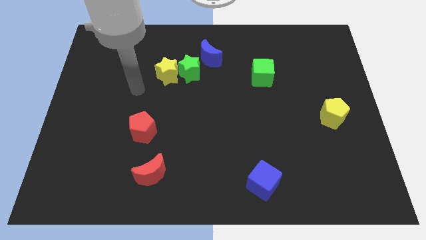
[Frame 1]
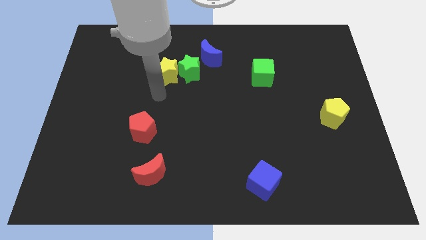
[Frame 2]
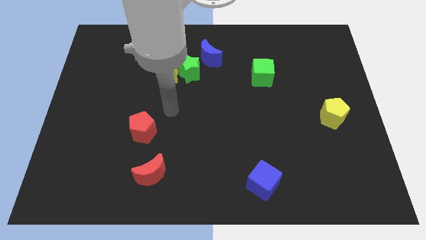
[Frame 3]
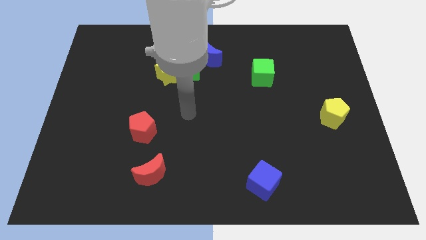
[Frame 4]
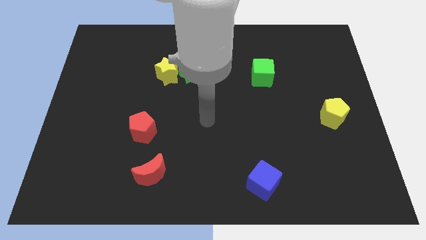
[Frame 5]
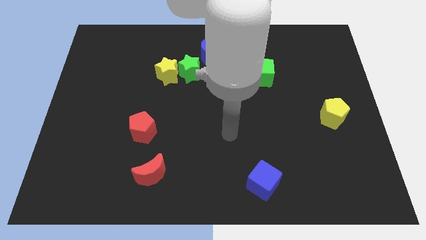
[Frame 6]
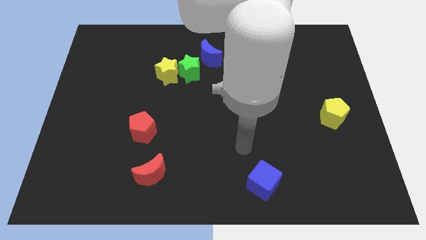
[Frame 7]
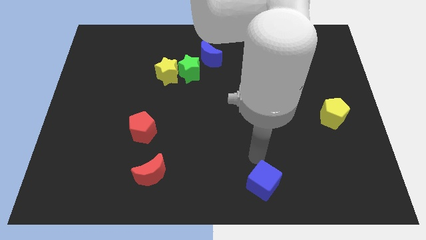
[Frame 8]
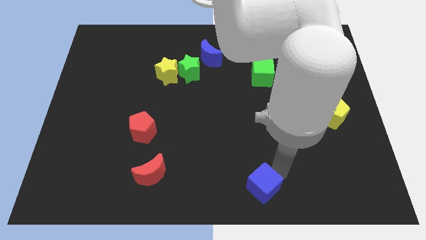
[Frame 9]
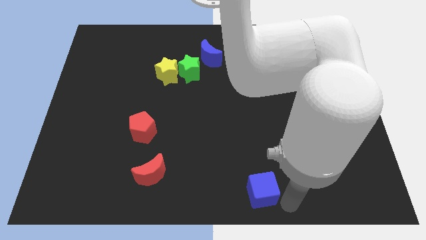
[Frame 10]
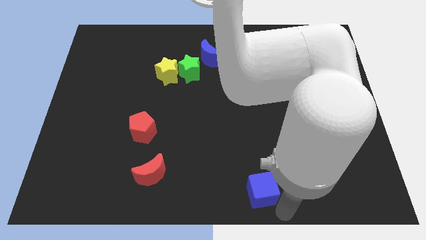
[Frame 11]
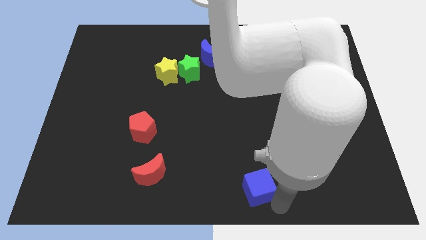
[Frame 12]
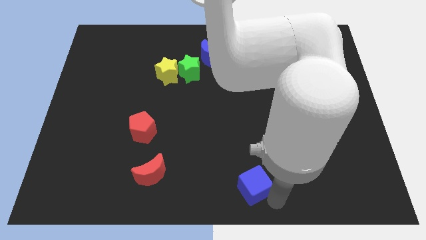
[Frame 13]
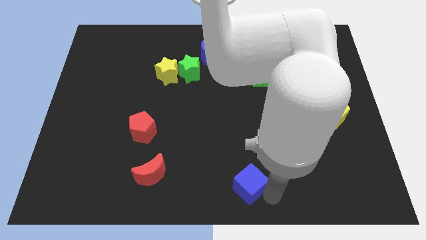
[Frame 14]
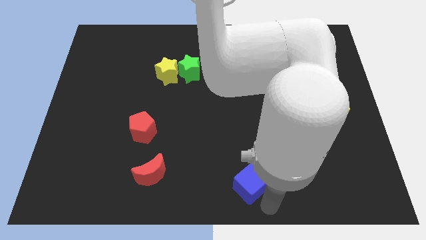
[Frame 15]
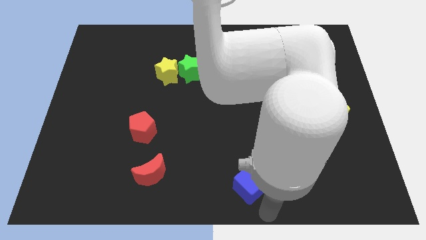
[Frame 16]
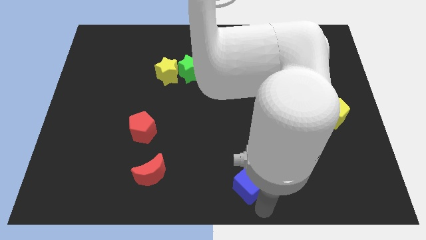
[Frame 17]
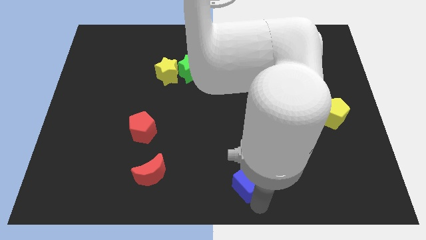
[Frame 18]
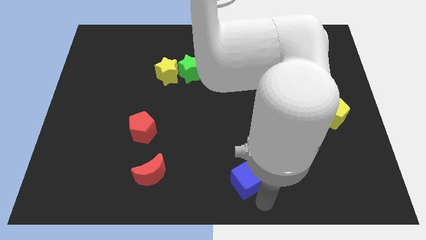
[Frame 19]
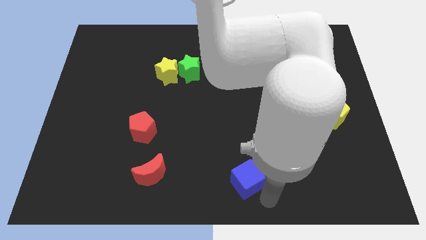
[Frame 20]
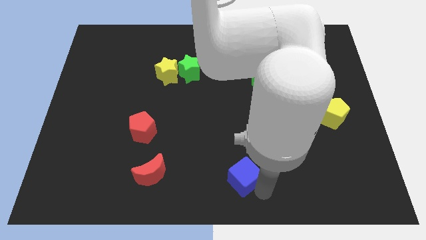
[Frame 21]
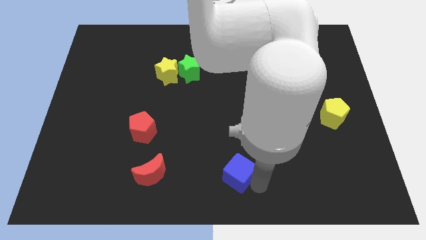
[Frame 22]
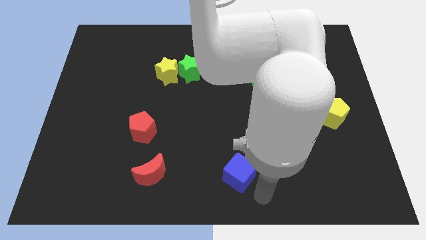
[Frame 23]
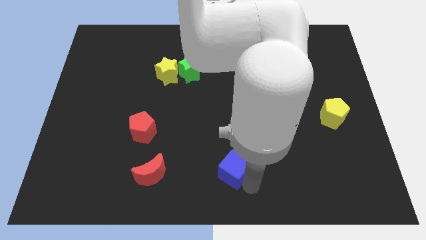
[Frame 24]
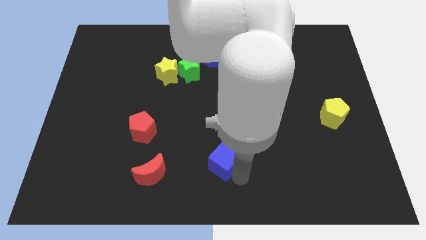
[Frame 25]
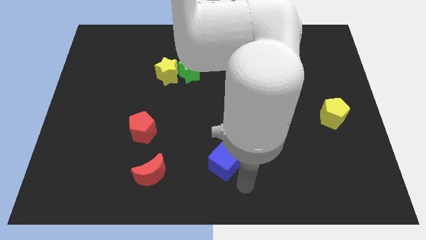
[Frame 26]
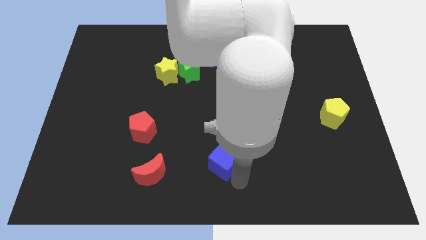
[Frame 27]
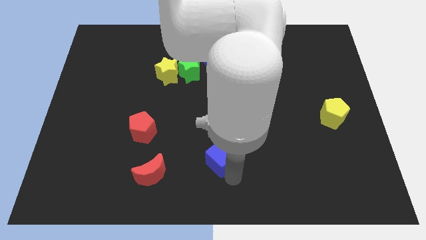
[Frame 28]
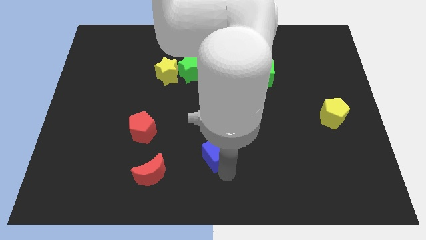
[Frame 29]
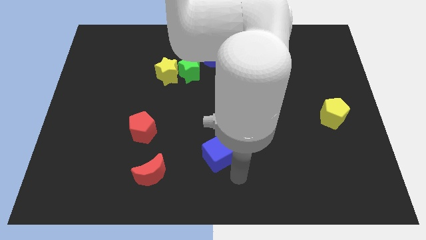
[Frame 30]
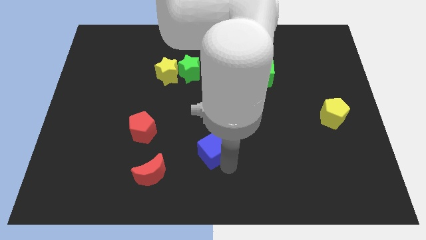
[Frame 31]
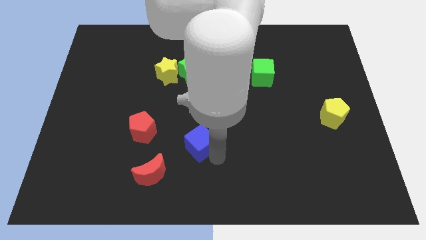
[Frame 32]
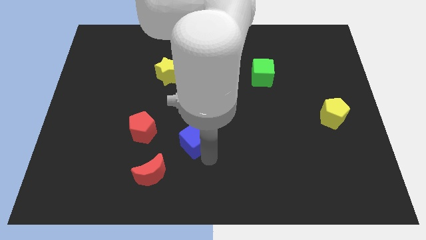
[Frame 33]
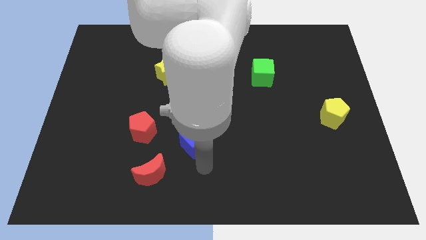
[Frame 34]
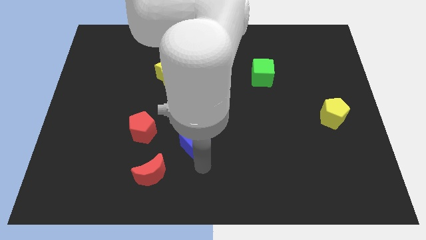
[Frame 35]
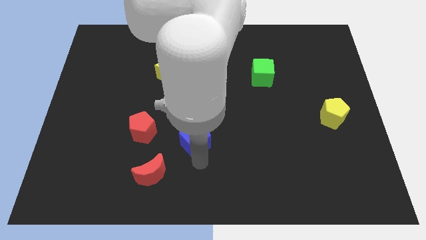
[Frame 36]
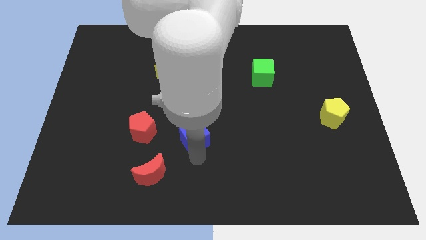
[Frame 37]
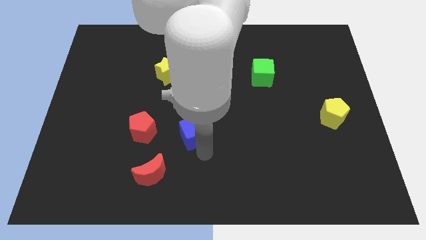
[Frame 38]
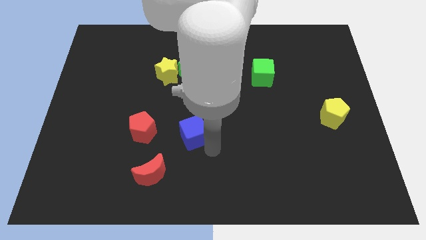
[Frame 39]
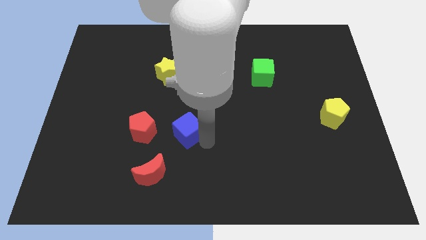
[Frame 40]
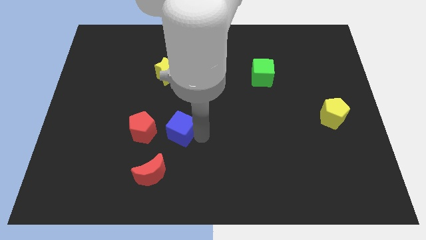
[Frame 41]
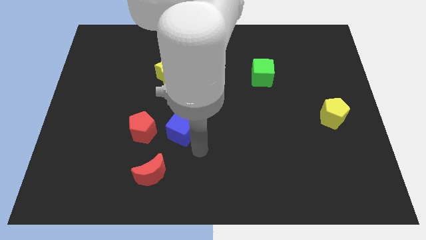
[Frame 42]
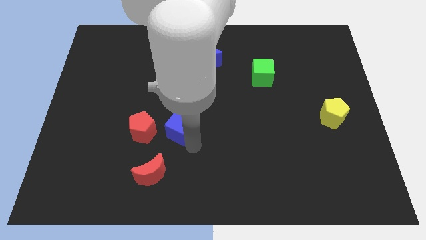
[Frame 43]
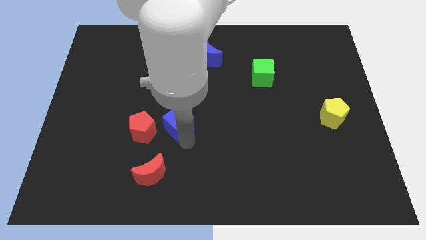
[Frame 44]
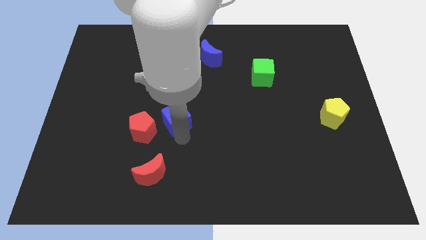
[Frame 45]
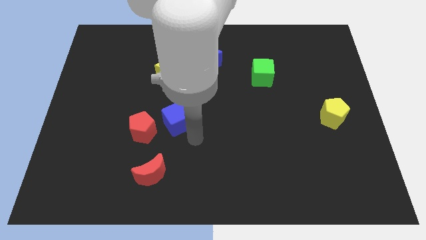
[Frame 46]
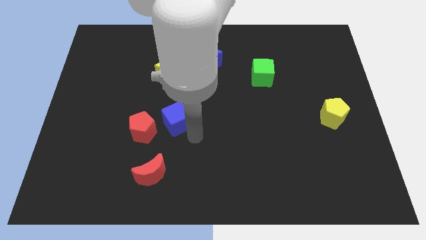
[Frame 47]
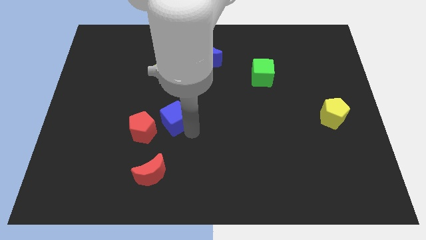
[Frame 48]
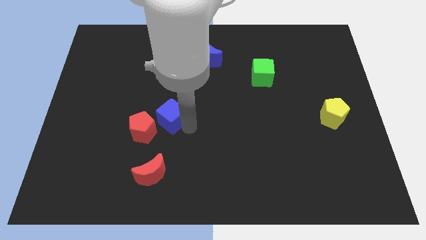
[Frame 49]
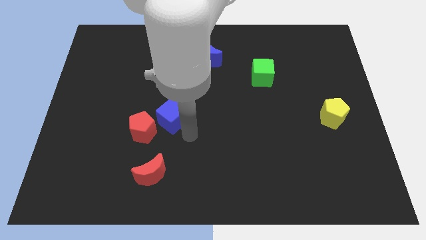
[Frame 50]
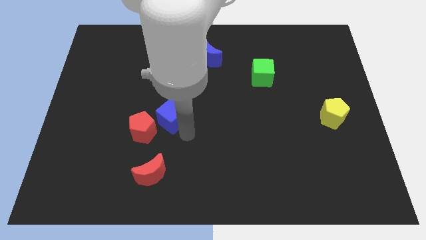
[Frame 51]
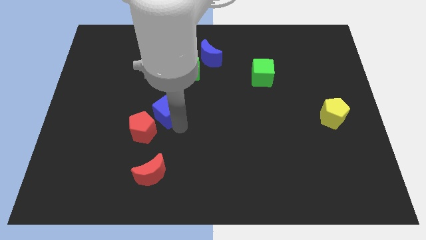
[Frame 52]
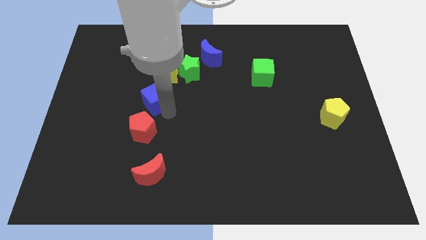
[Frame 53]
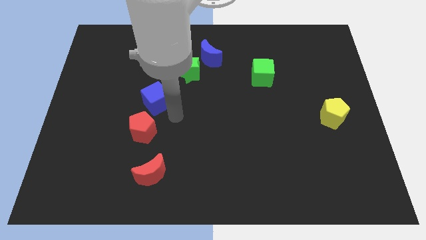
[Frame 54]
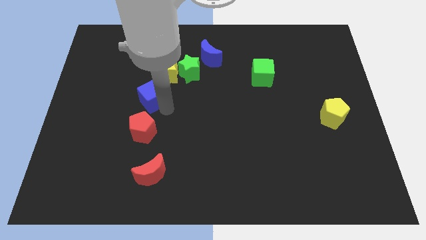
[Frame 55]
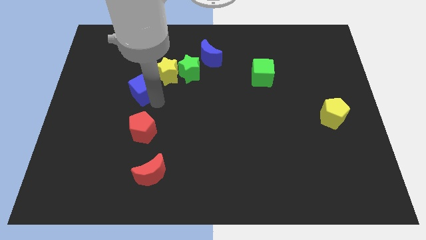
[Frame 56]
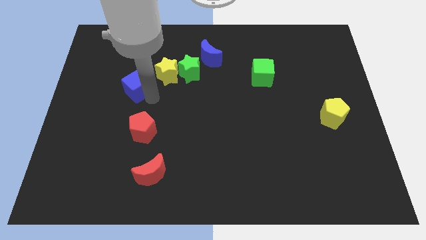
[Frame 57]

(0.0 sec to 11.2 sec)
slide the blue cube to the left side of the yellow star

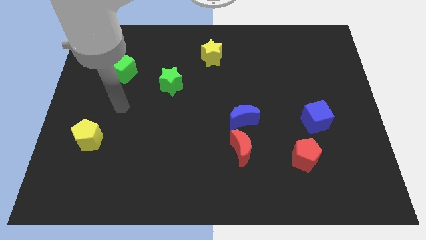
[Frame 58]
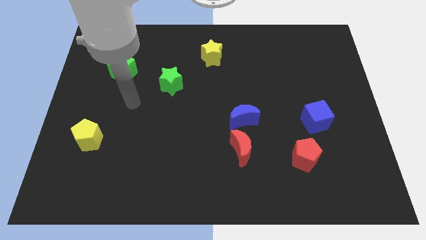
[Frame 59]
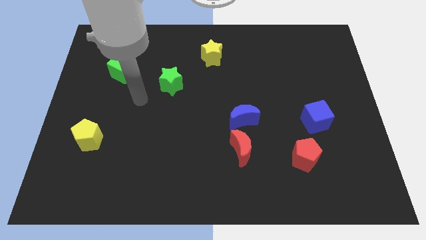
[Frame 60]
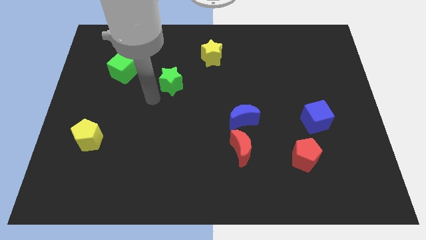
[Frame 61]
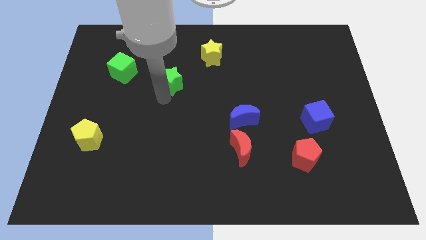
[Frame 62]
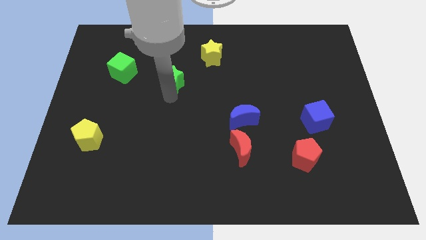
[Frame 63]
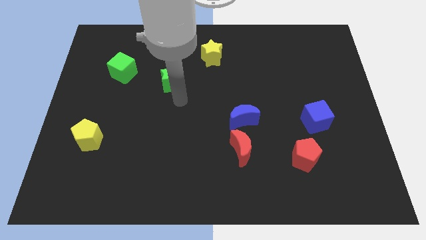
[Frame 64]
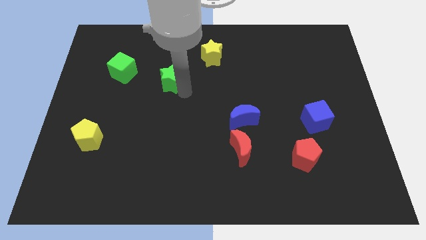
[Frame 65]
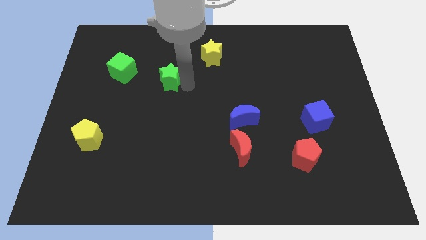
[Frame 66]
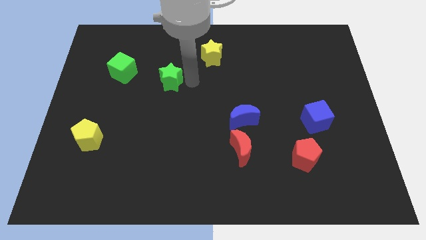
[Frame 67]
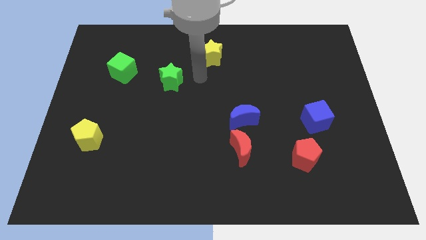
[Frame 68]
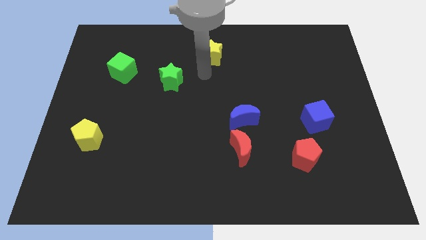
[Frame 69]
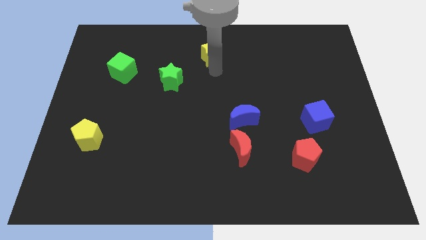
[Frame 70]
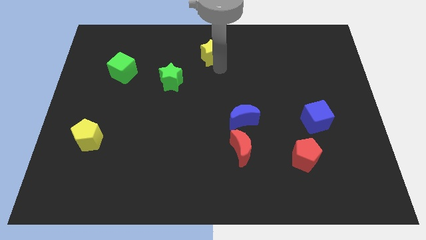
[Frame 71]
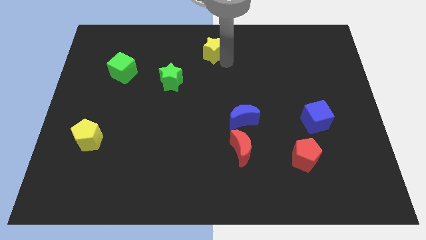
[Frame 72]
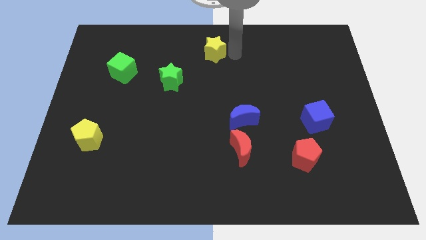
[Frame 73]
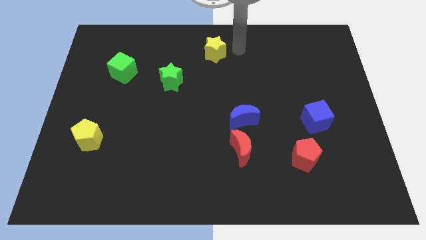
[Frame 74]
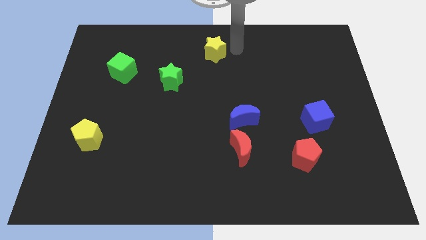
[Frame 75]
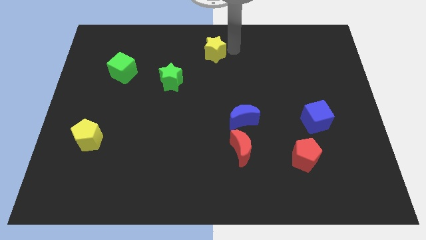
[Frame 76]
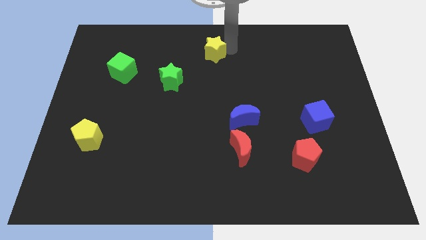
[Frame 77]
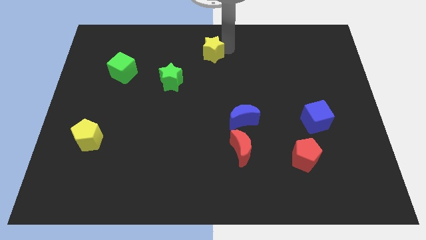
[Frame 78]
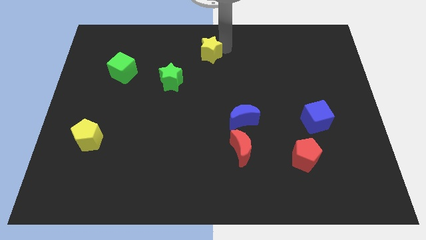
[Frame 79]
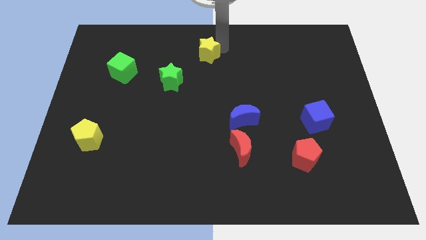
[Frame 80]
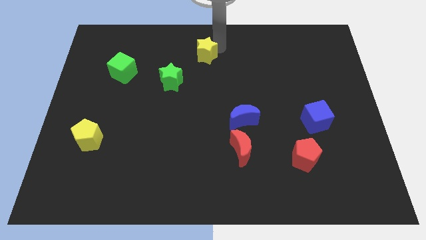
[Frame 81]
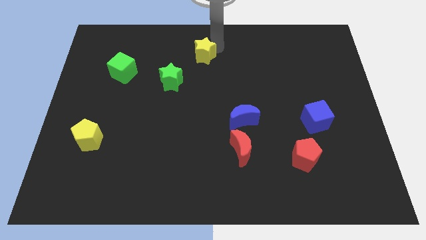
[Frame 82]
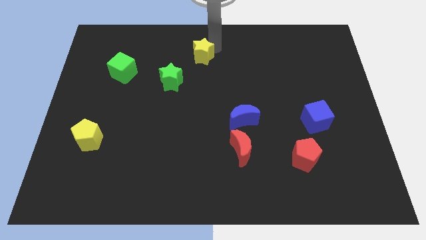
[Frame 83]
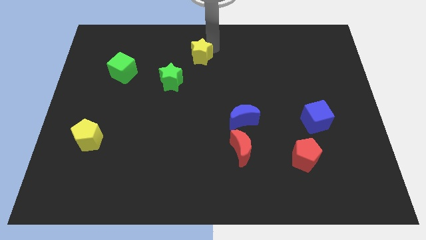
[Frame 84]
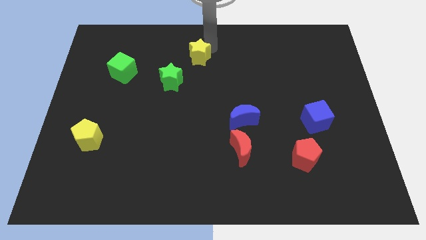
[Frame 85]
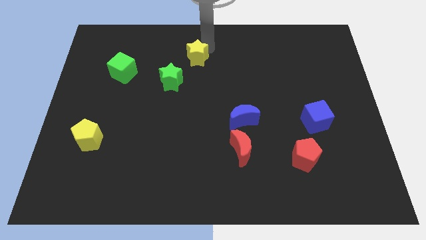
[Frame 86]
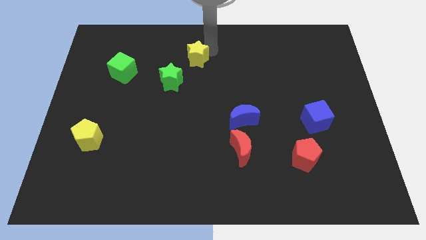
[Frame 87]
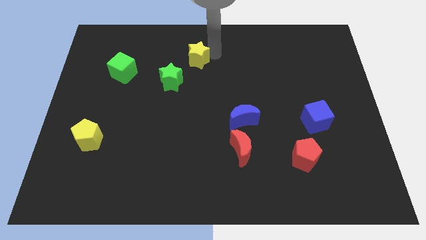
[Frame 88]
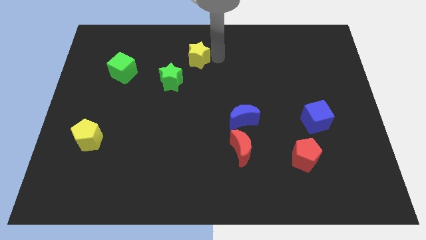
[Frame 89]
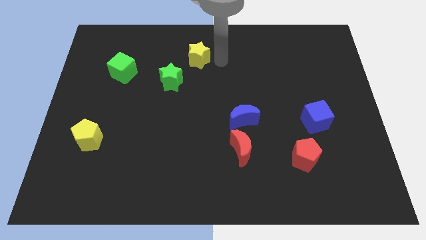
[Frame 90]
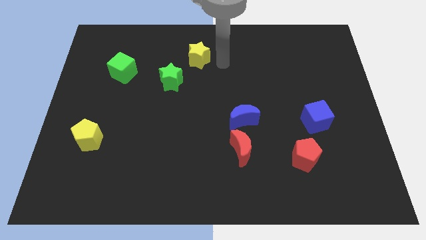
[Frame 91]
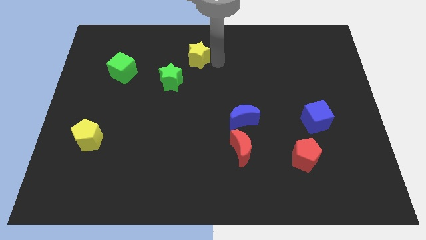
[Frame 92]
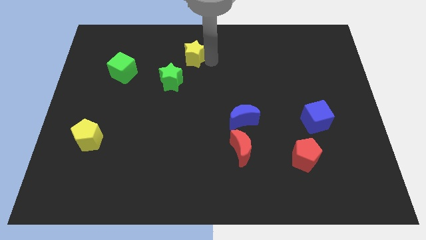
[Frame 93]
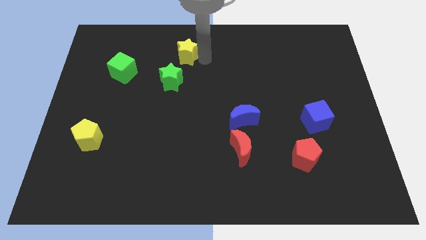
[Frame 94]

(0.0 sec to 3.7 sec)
move the yellow star to the top side of the green star
